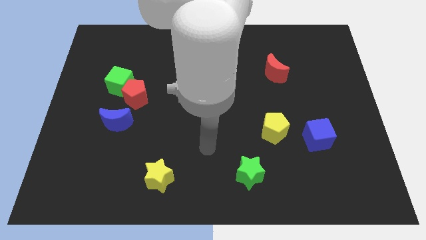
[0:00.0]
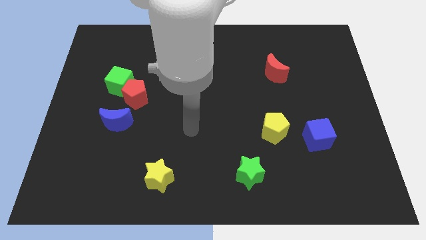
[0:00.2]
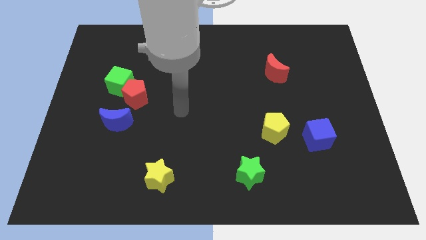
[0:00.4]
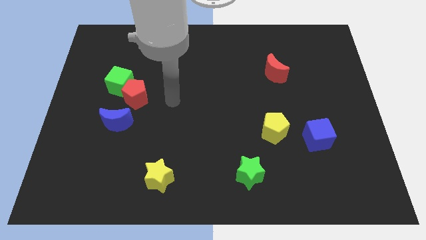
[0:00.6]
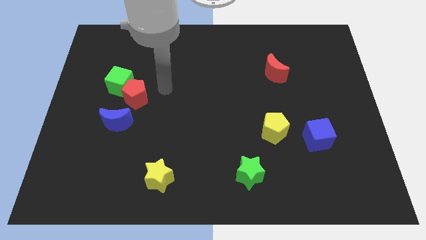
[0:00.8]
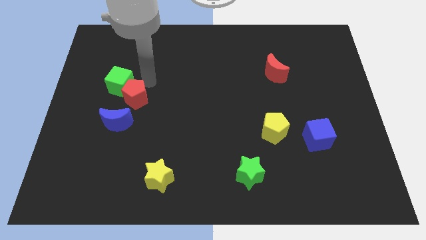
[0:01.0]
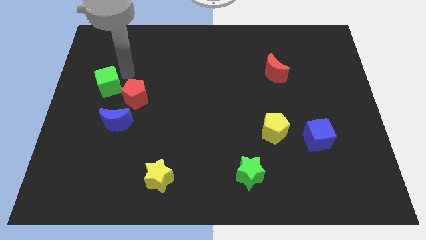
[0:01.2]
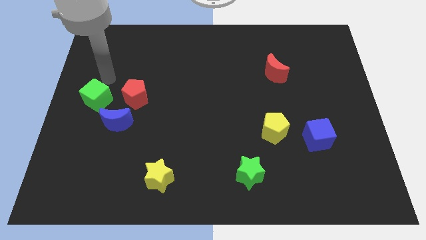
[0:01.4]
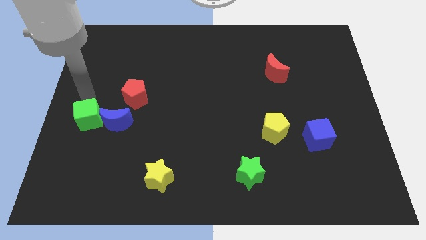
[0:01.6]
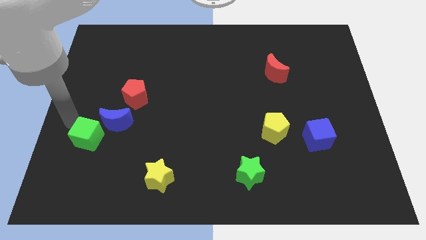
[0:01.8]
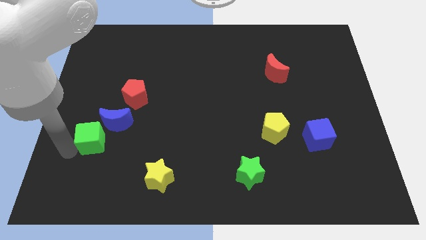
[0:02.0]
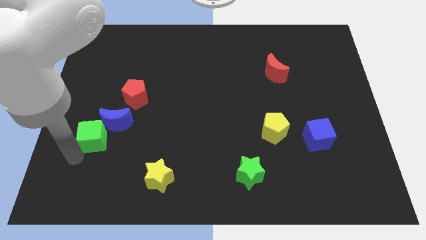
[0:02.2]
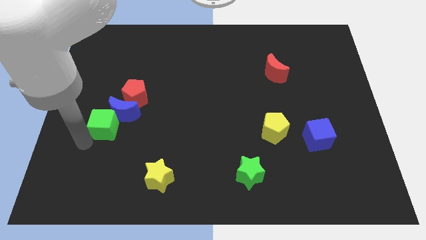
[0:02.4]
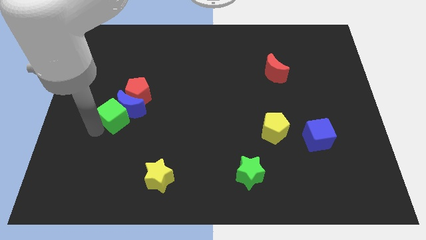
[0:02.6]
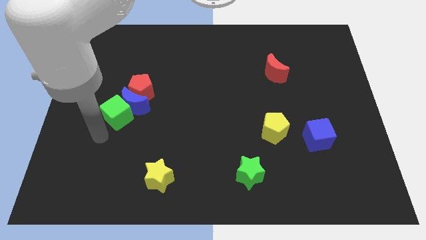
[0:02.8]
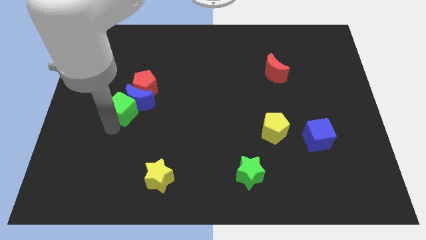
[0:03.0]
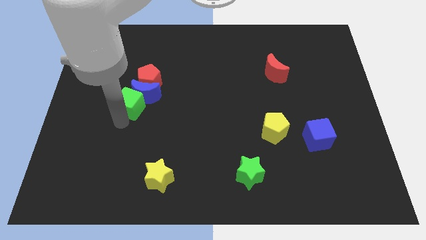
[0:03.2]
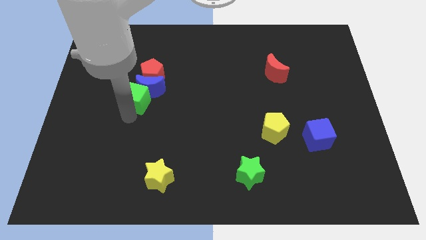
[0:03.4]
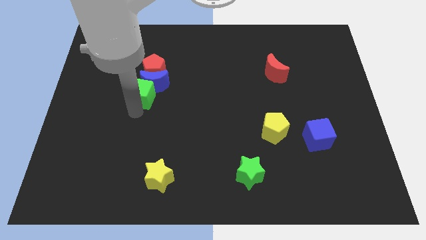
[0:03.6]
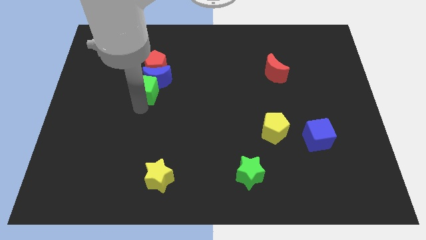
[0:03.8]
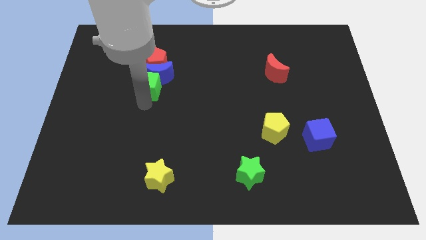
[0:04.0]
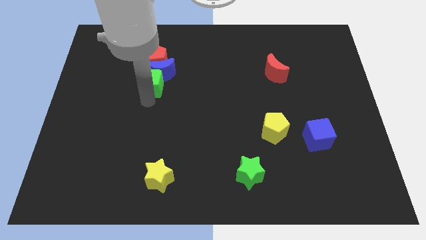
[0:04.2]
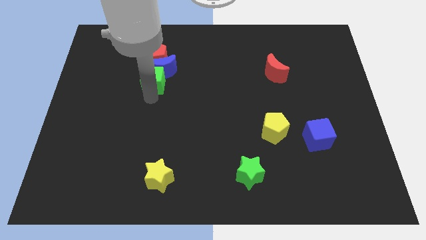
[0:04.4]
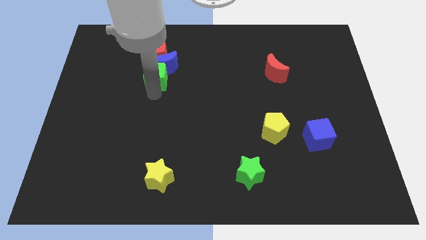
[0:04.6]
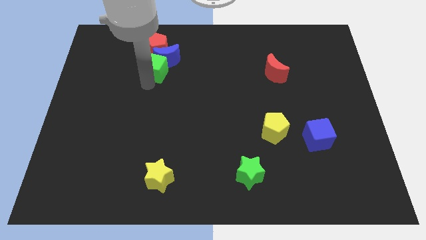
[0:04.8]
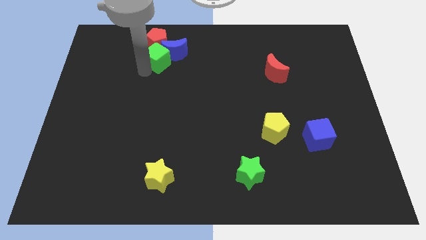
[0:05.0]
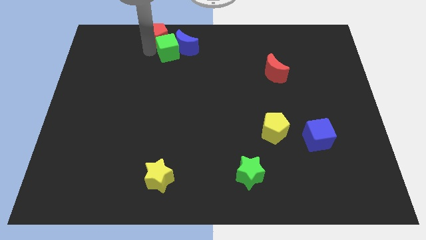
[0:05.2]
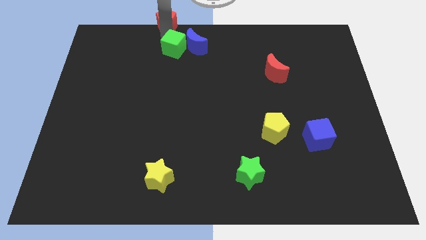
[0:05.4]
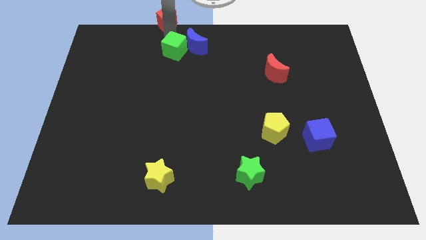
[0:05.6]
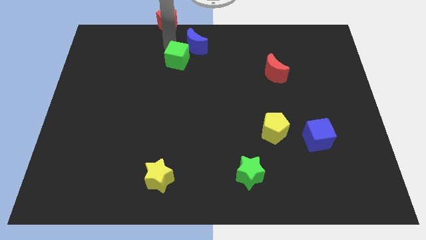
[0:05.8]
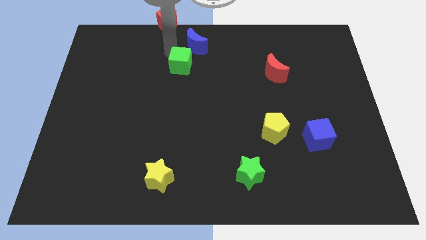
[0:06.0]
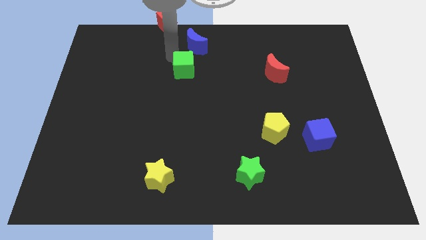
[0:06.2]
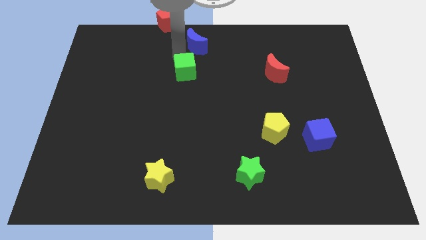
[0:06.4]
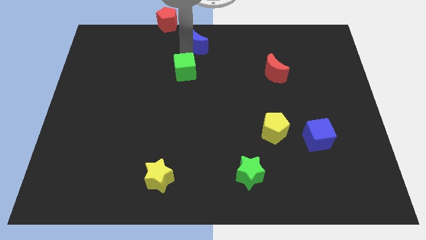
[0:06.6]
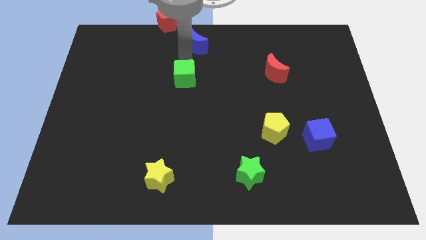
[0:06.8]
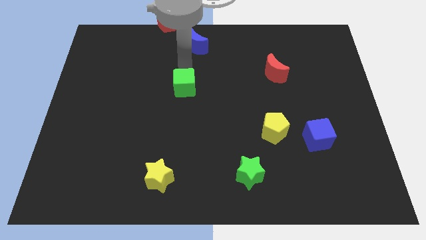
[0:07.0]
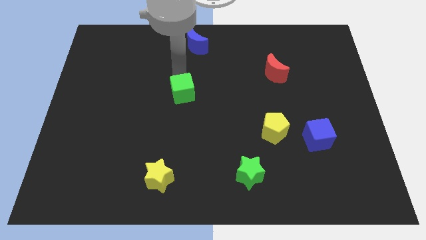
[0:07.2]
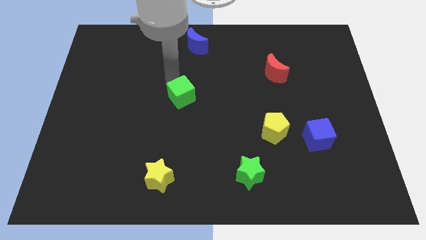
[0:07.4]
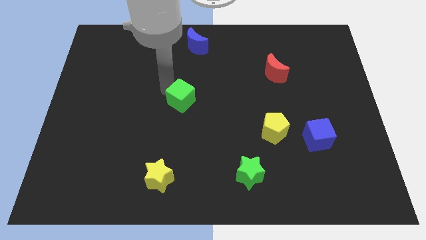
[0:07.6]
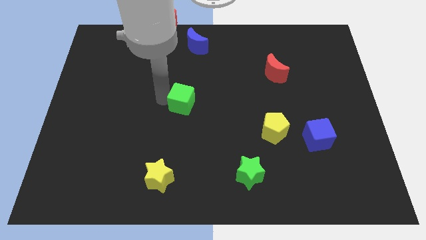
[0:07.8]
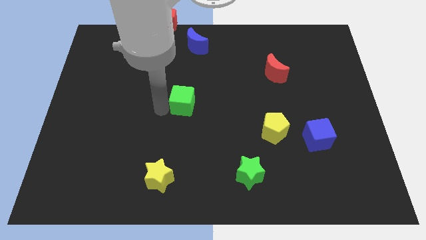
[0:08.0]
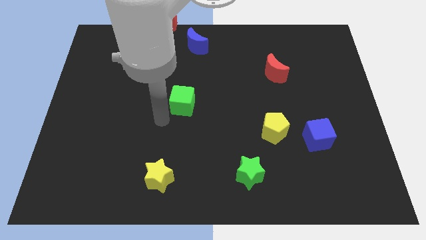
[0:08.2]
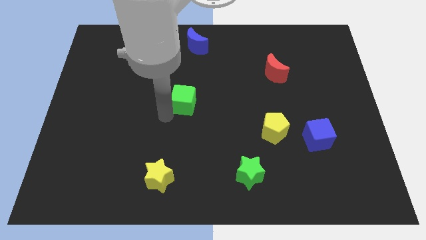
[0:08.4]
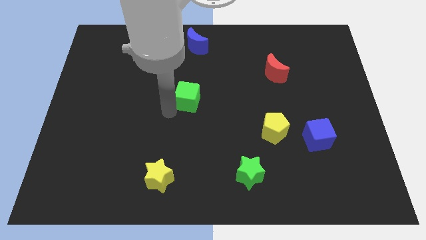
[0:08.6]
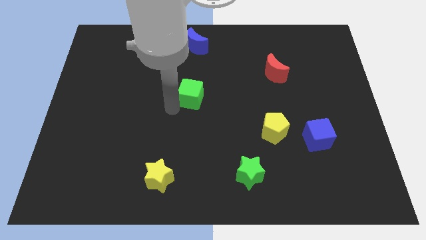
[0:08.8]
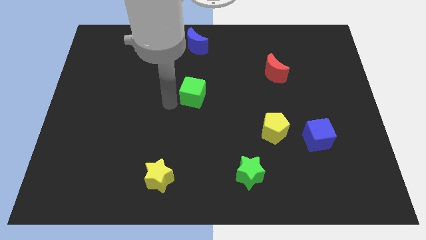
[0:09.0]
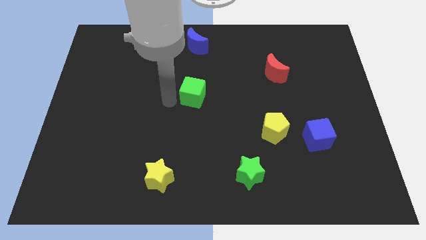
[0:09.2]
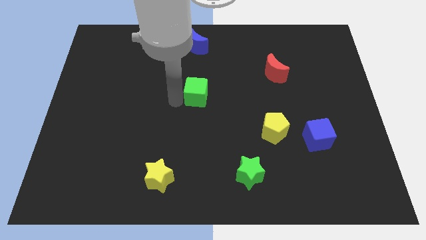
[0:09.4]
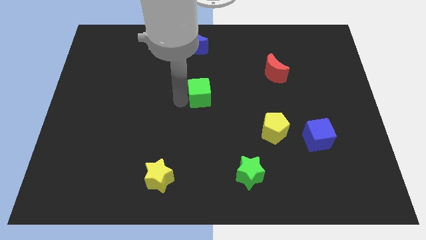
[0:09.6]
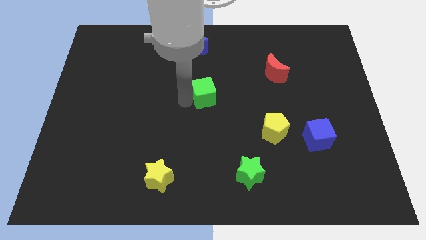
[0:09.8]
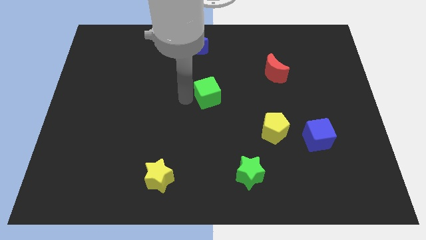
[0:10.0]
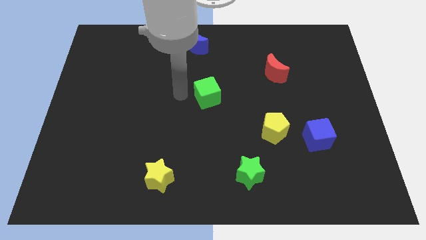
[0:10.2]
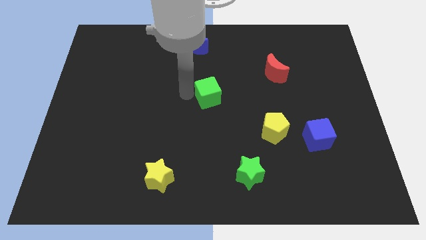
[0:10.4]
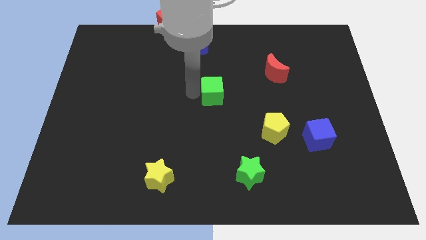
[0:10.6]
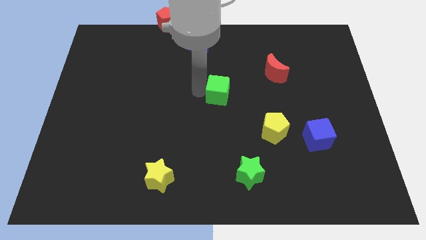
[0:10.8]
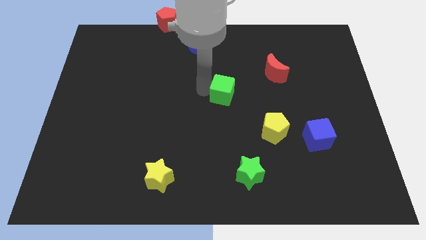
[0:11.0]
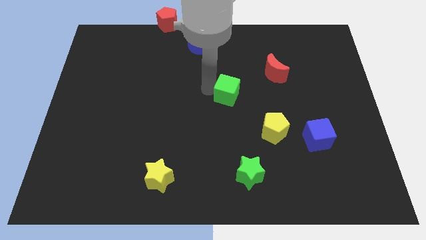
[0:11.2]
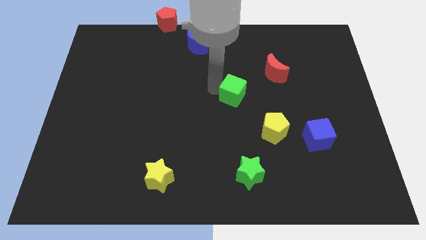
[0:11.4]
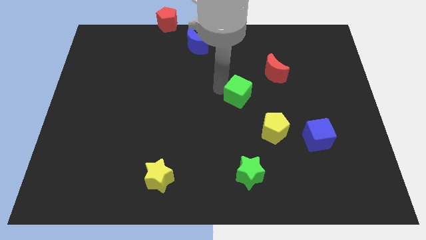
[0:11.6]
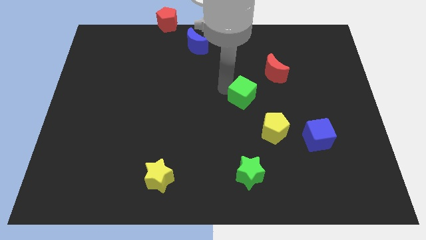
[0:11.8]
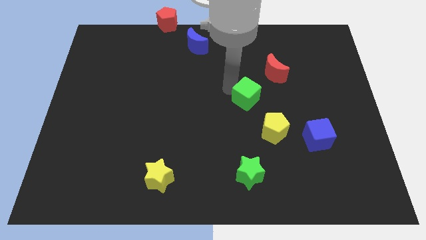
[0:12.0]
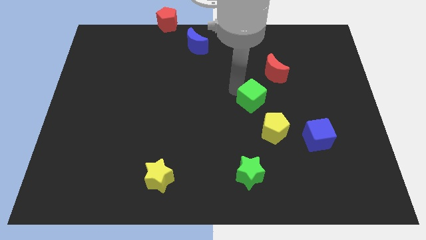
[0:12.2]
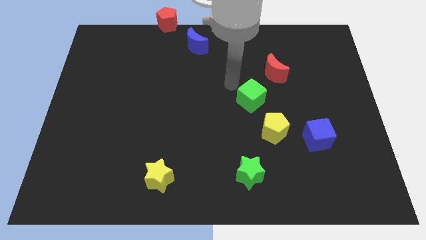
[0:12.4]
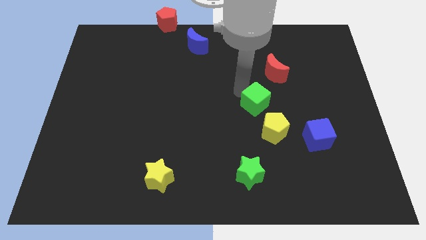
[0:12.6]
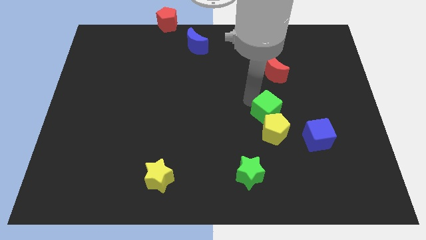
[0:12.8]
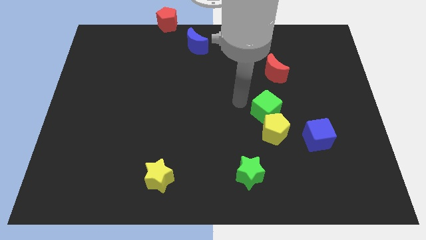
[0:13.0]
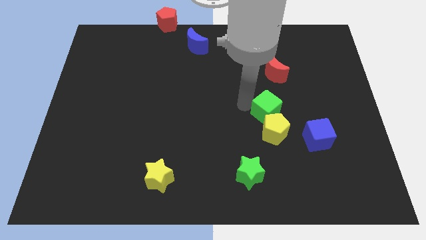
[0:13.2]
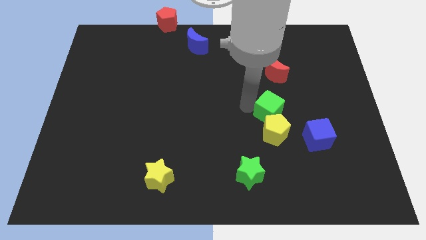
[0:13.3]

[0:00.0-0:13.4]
push the green cube to the top left of the blue cube

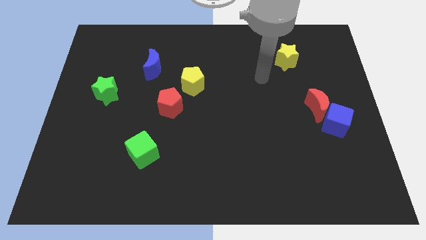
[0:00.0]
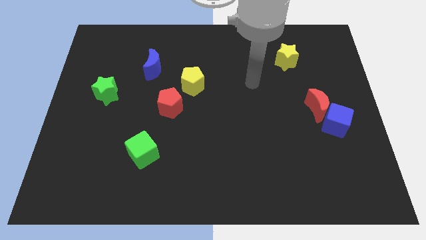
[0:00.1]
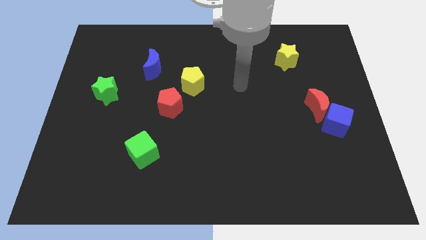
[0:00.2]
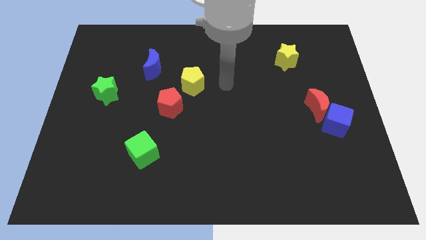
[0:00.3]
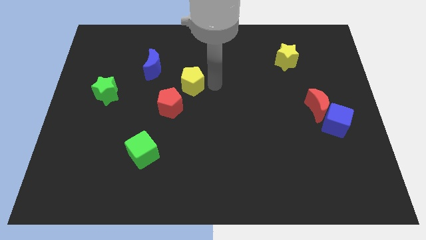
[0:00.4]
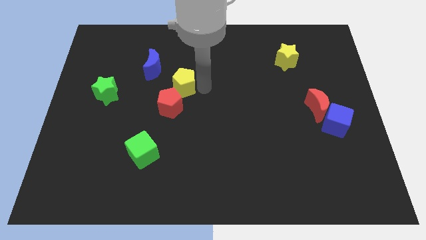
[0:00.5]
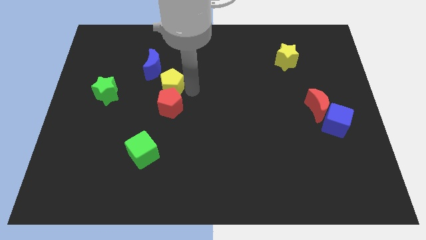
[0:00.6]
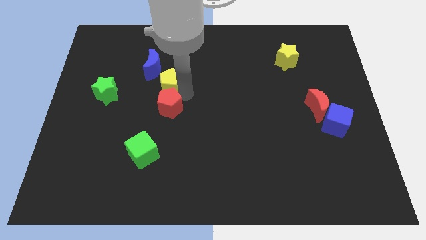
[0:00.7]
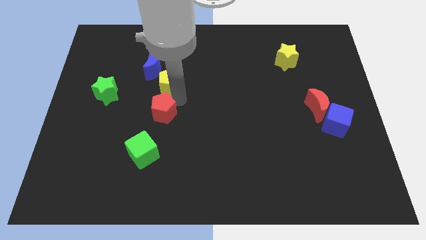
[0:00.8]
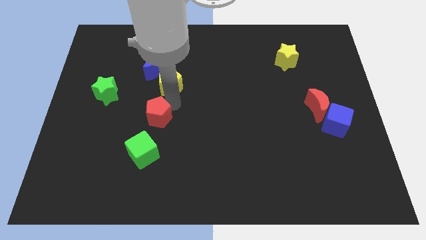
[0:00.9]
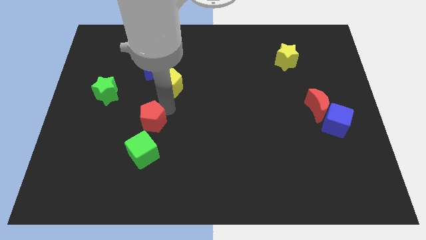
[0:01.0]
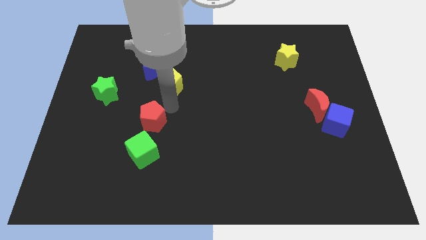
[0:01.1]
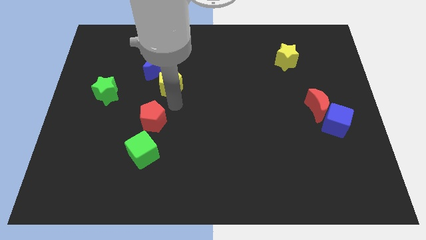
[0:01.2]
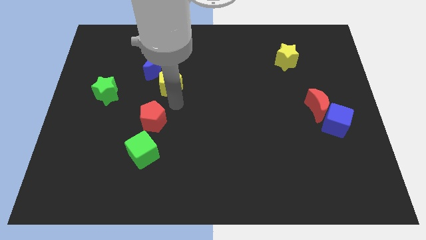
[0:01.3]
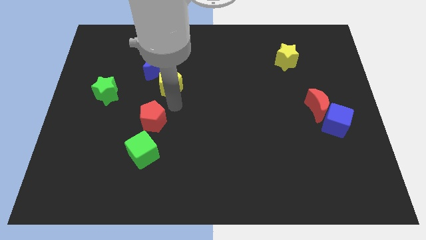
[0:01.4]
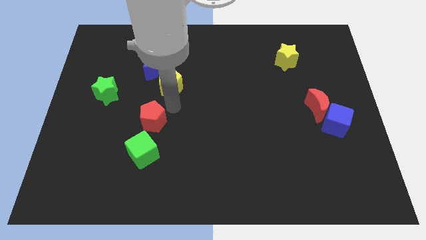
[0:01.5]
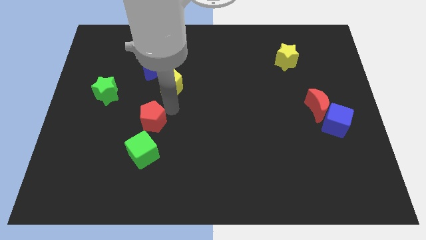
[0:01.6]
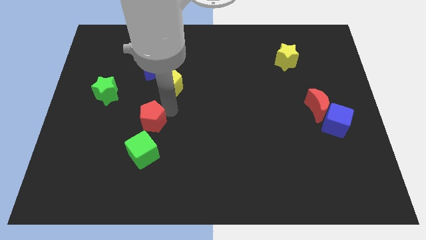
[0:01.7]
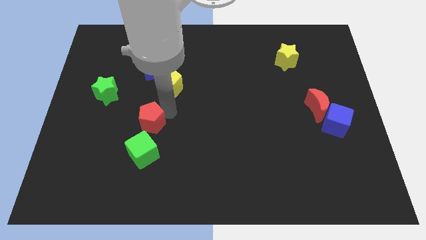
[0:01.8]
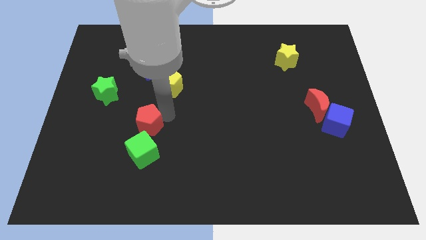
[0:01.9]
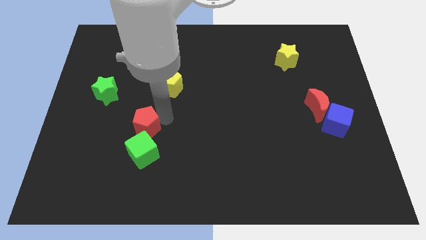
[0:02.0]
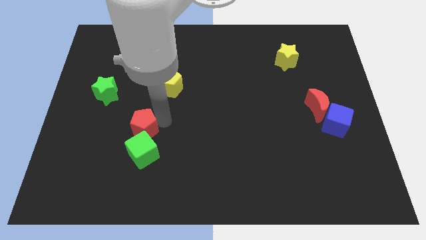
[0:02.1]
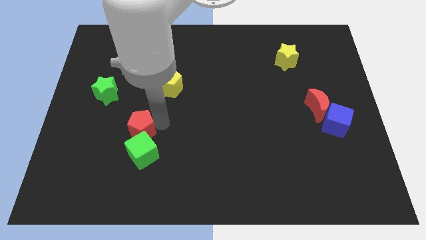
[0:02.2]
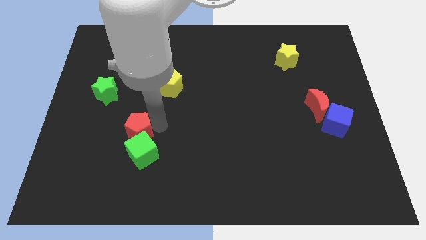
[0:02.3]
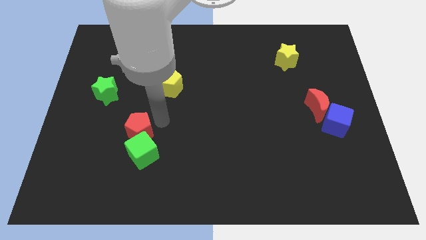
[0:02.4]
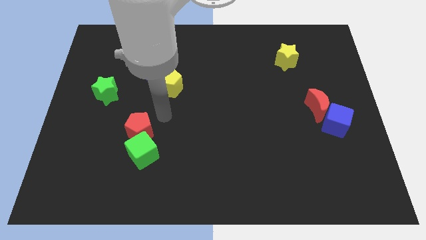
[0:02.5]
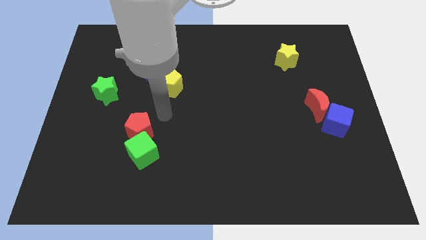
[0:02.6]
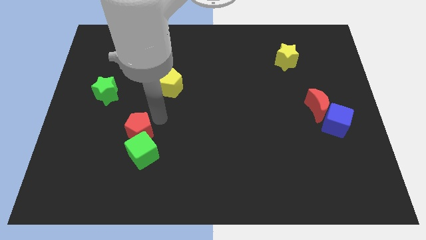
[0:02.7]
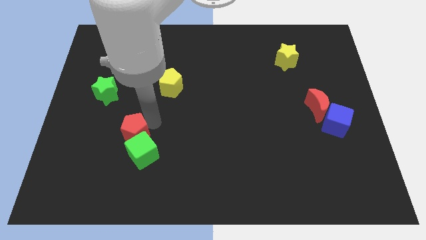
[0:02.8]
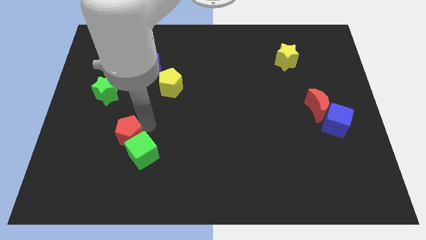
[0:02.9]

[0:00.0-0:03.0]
slide the red pentagon left of the green cube
